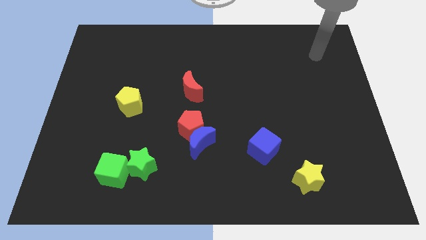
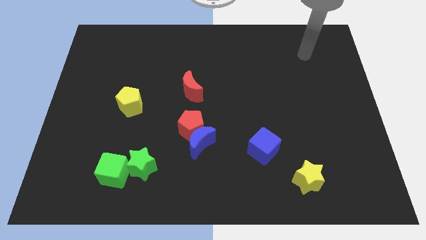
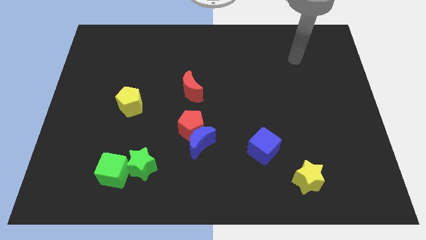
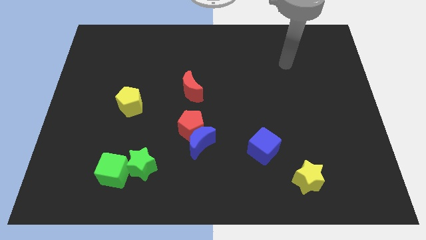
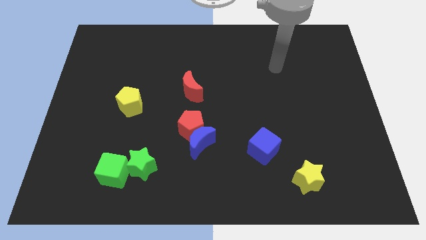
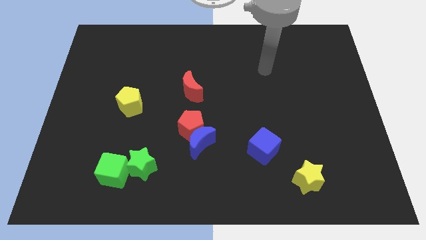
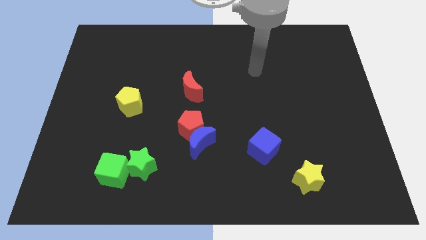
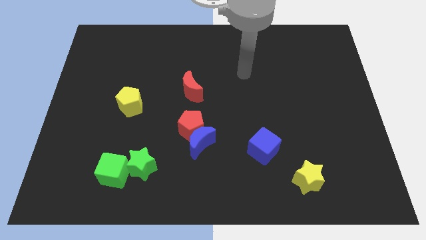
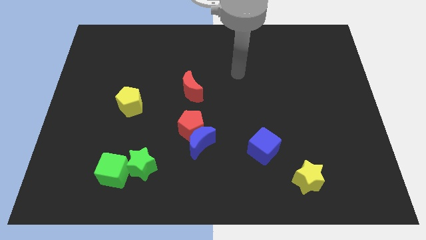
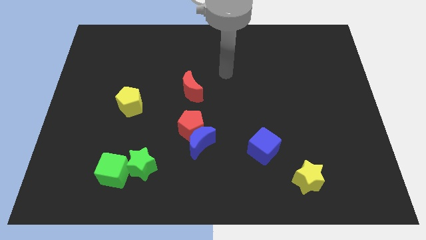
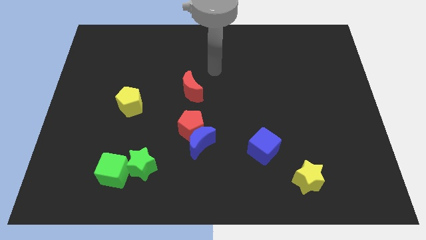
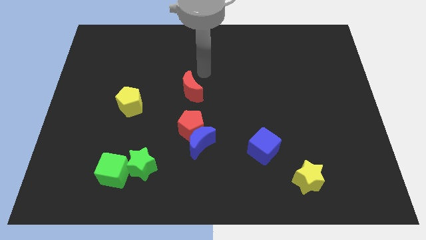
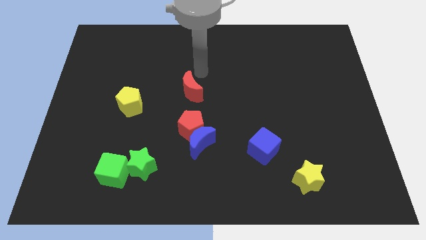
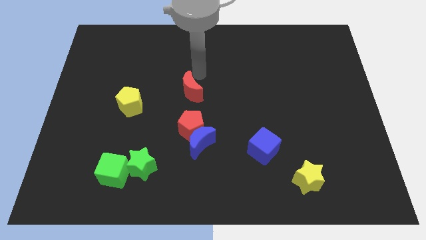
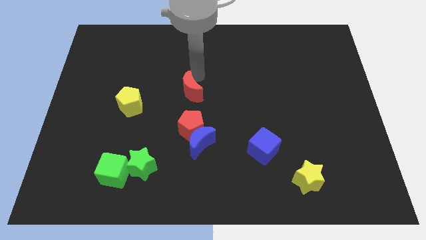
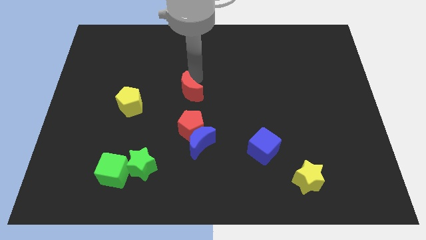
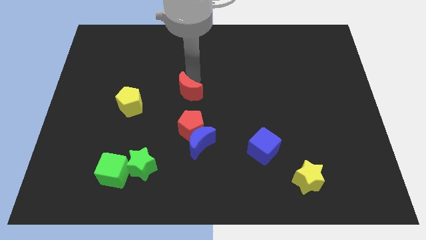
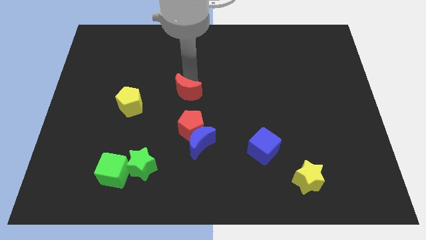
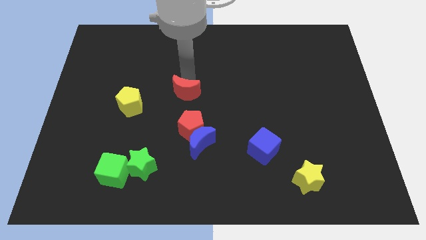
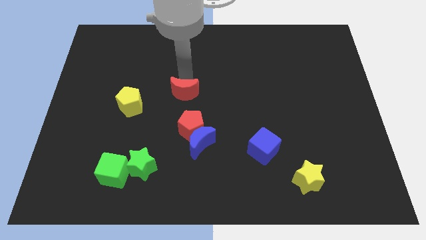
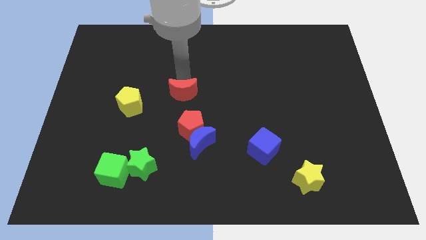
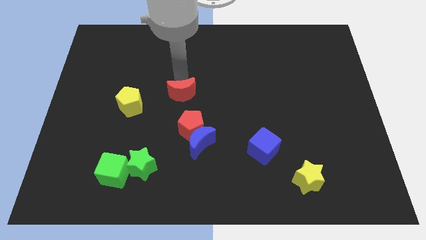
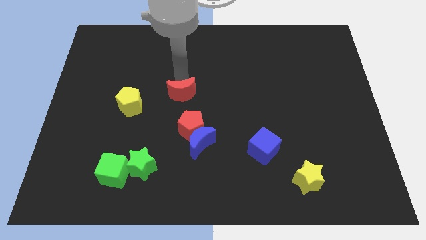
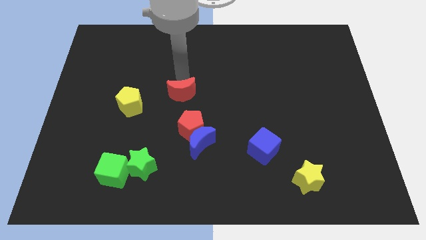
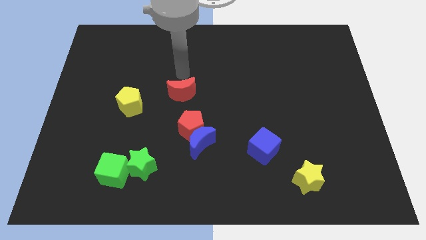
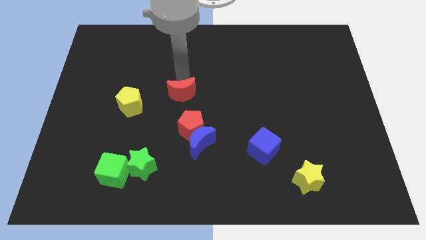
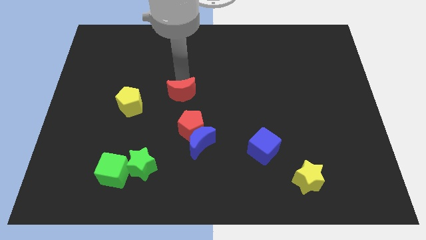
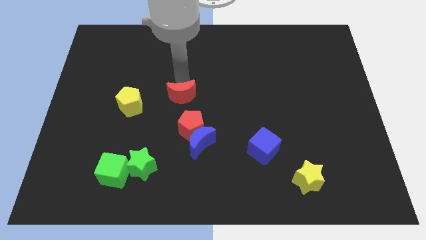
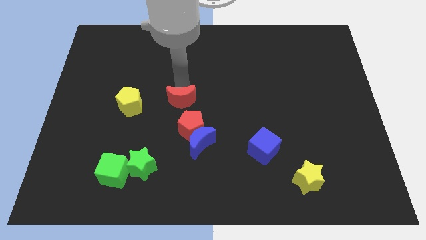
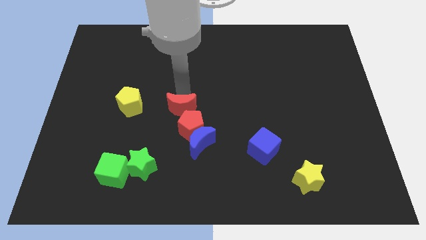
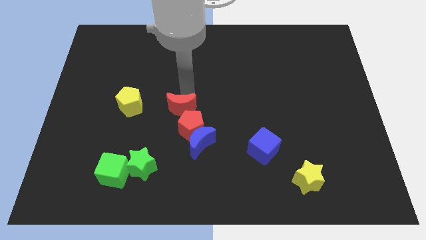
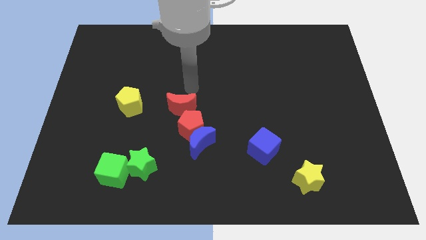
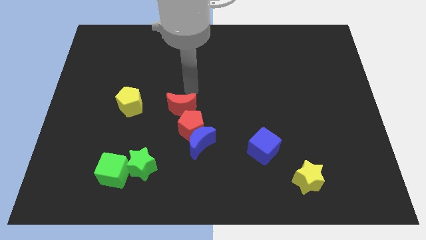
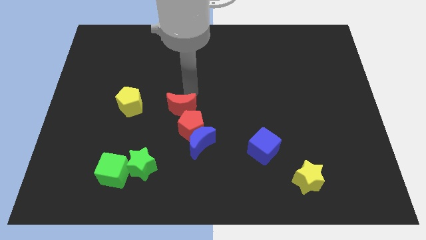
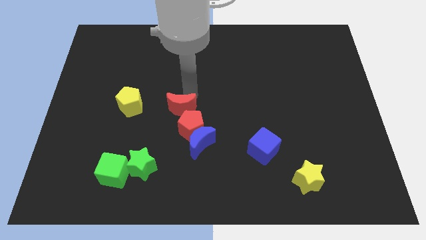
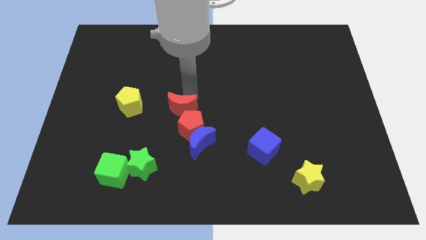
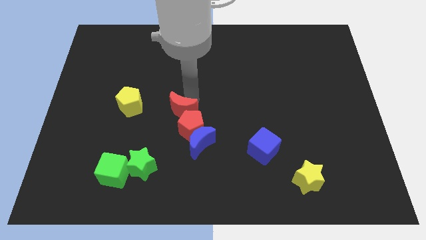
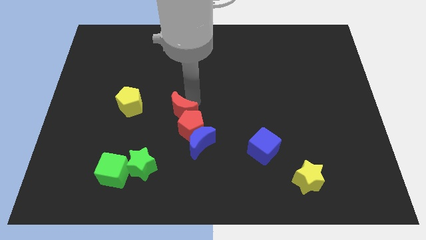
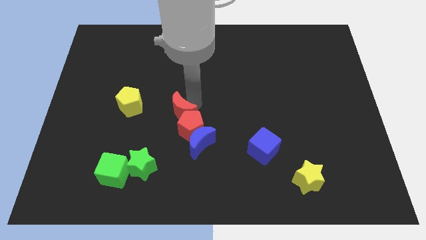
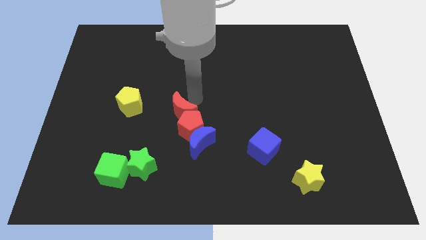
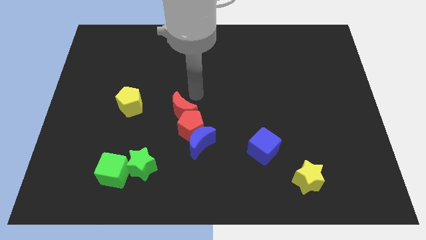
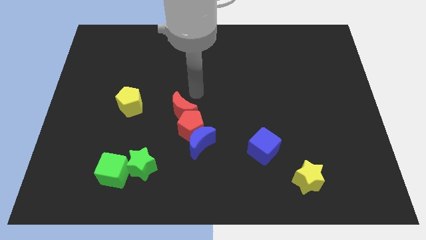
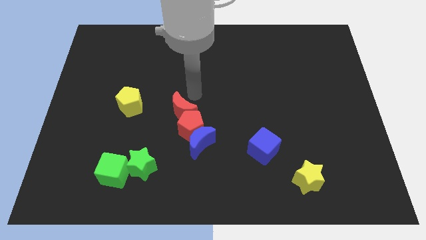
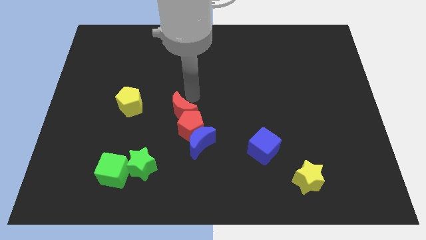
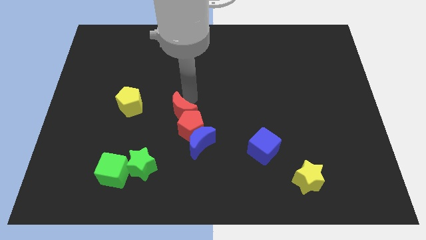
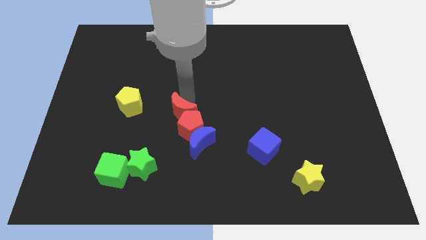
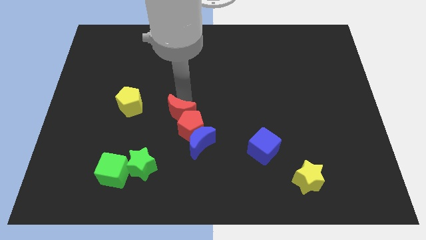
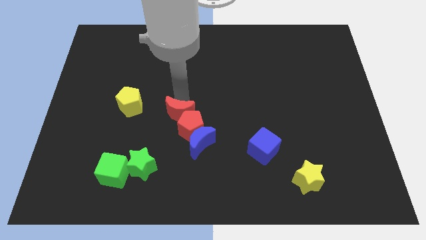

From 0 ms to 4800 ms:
slightly slide the red moon downwards

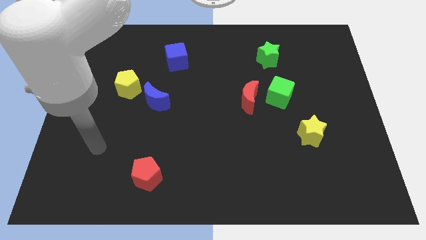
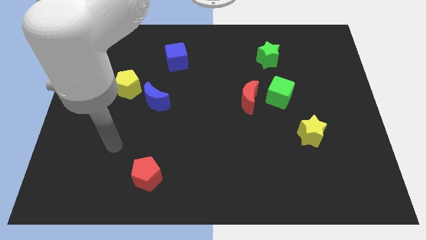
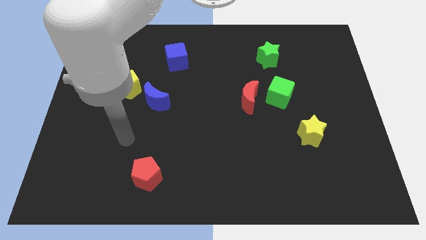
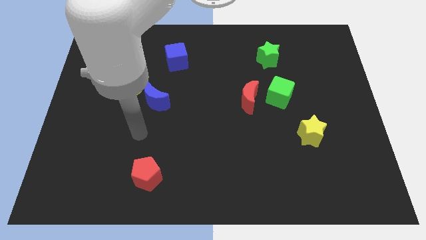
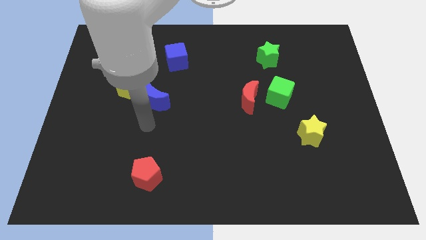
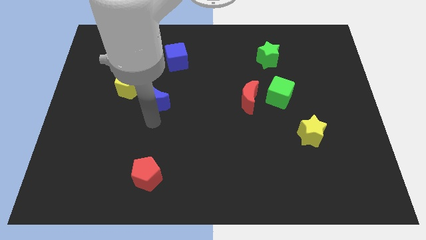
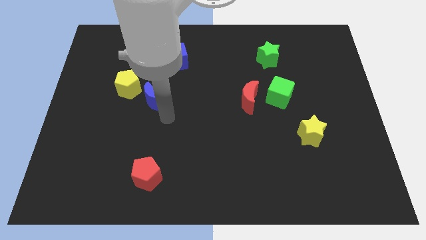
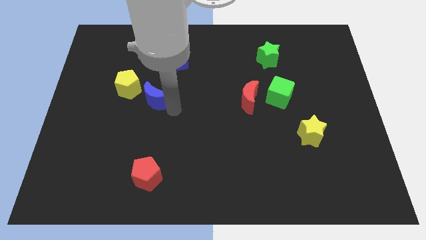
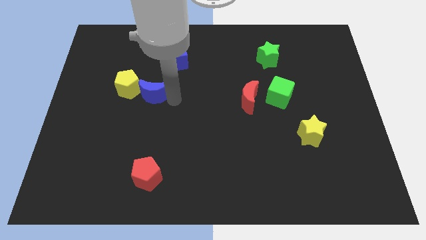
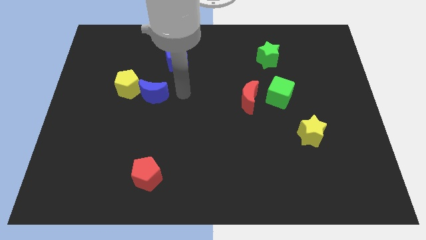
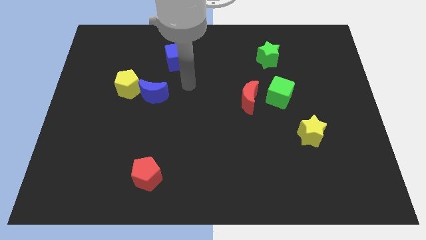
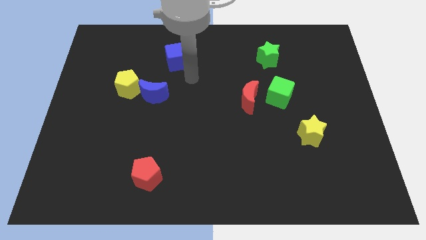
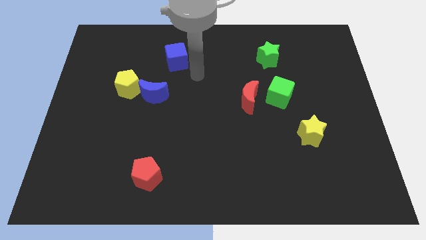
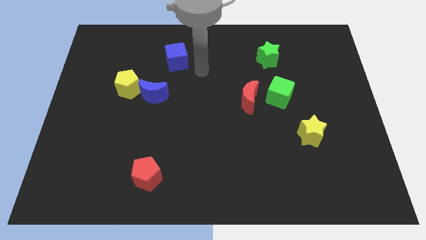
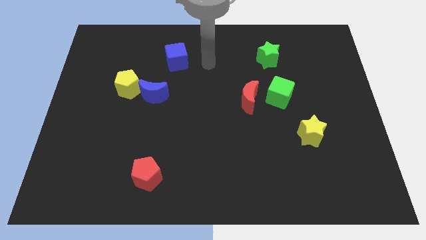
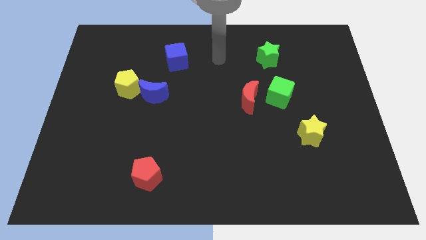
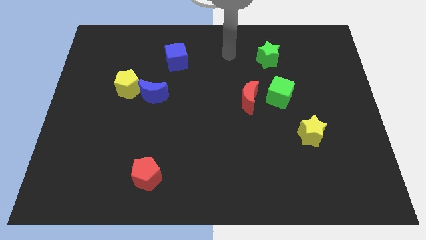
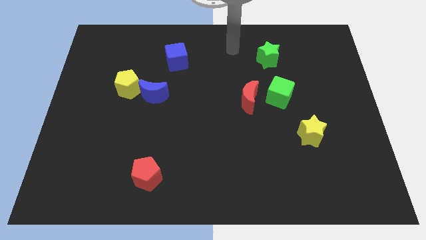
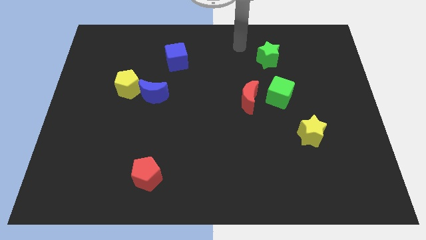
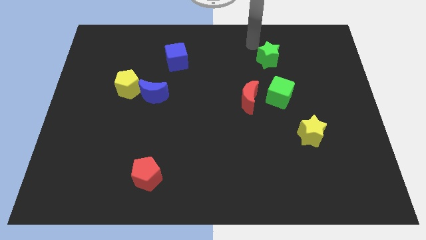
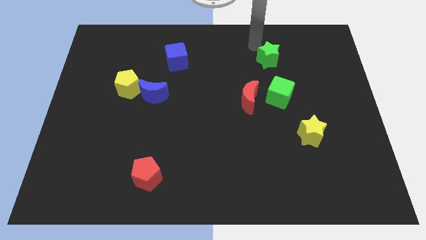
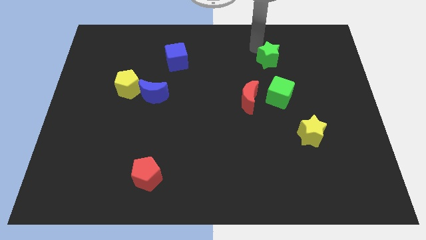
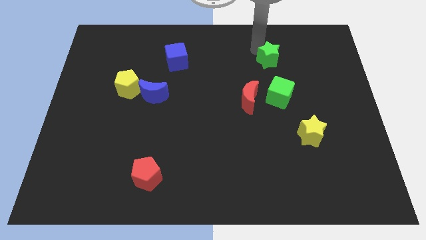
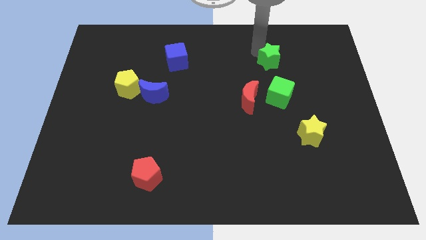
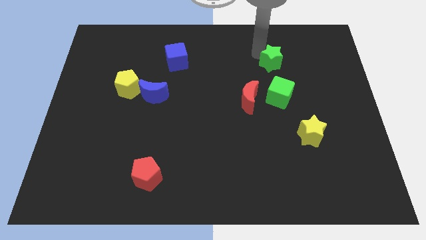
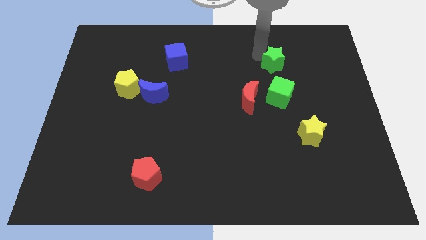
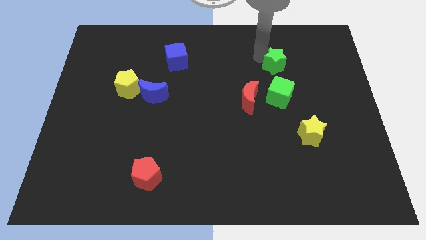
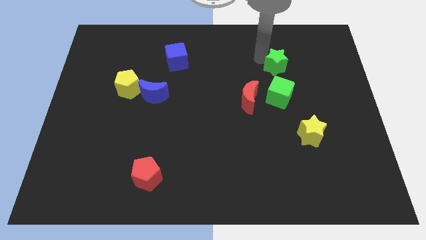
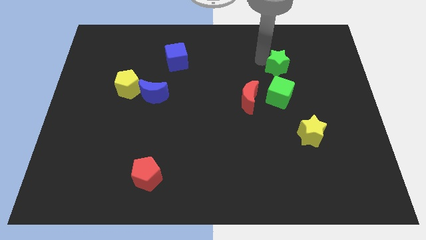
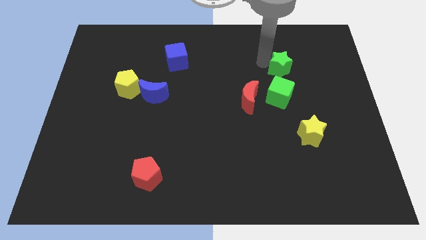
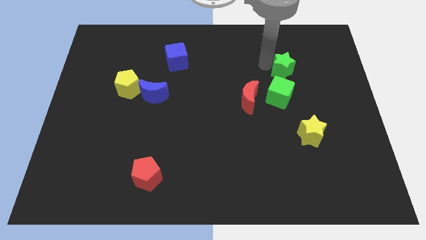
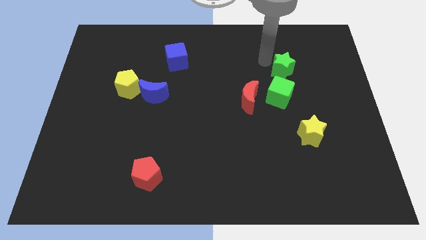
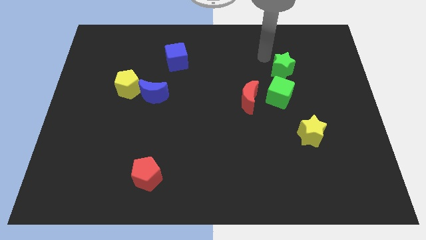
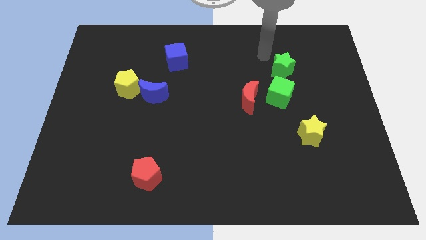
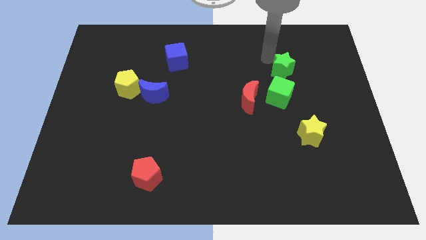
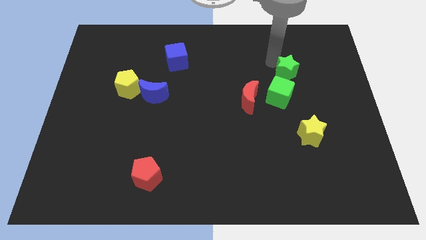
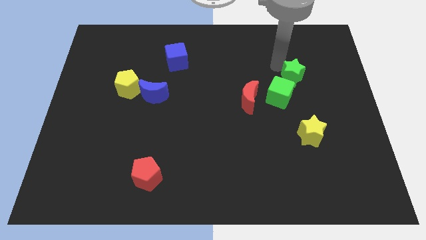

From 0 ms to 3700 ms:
push the green star slightly downwards and right
